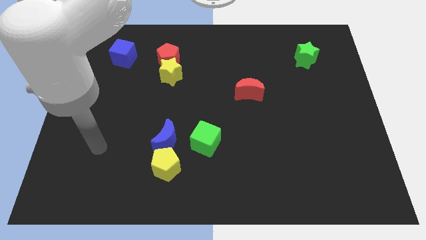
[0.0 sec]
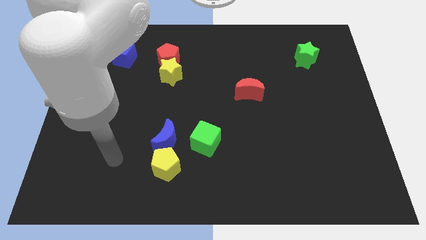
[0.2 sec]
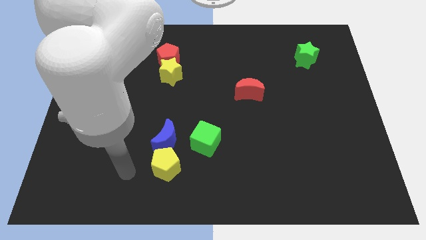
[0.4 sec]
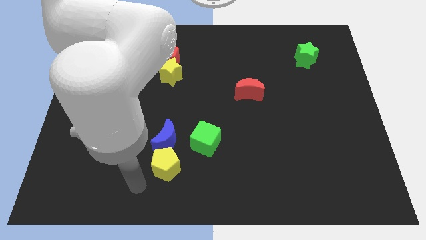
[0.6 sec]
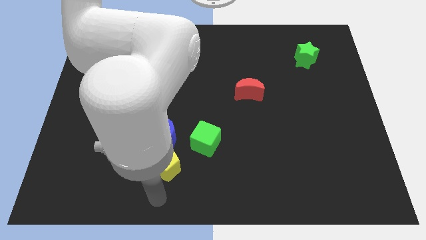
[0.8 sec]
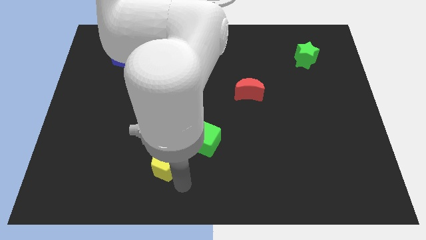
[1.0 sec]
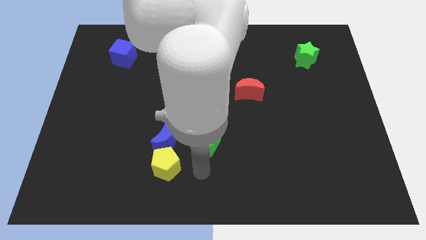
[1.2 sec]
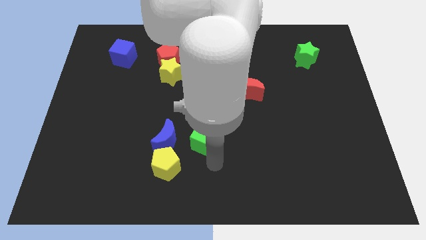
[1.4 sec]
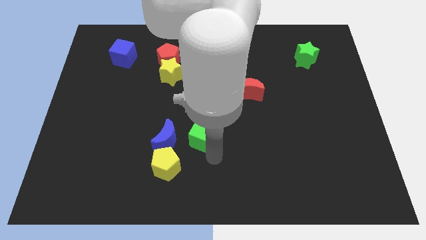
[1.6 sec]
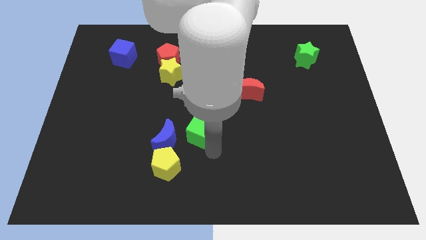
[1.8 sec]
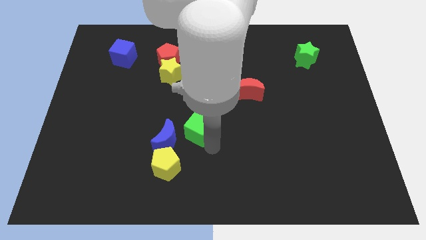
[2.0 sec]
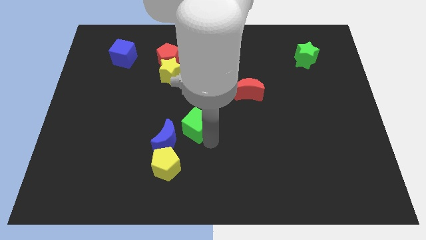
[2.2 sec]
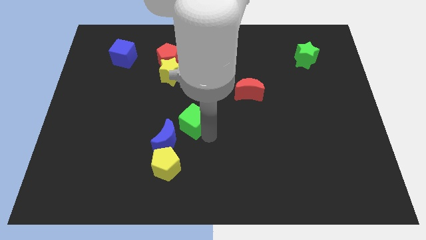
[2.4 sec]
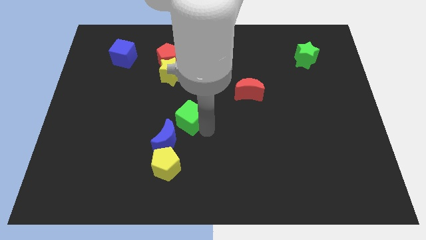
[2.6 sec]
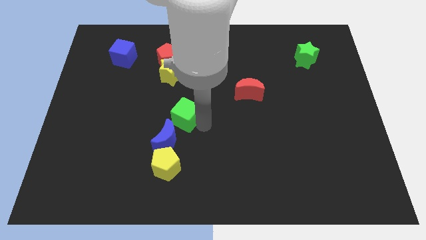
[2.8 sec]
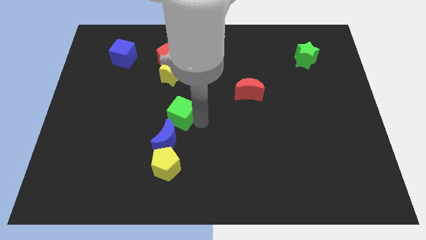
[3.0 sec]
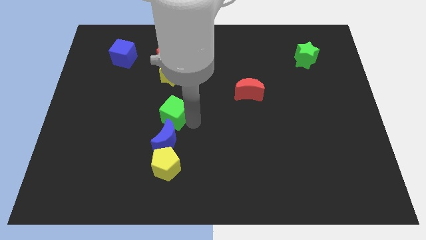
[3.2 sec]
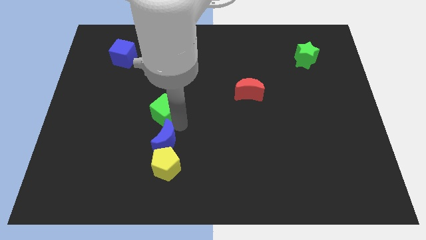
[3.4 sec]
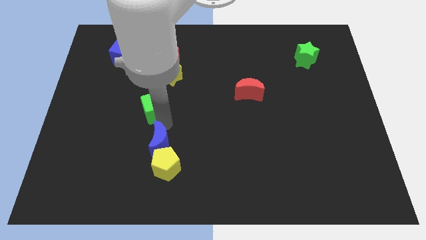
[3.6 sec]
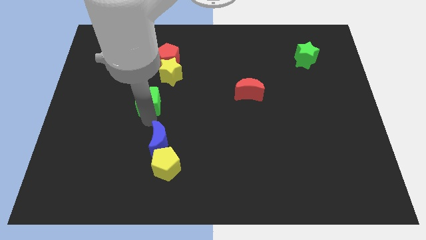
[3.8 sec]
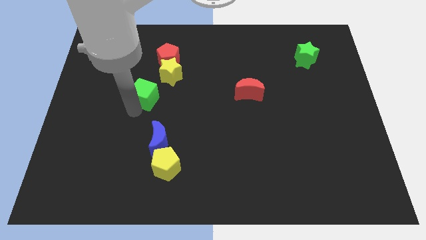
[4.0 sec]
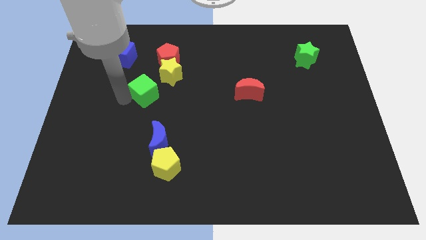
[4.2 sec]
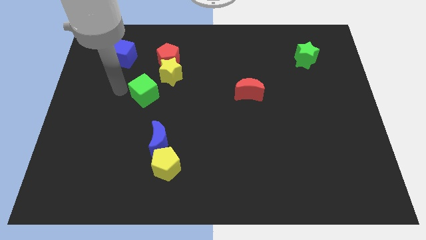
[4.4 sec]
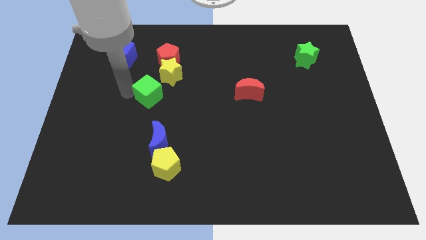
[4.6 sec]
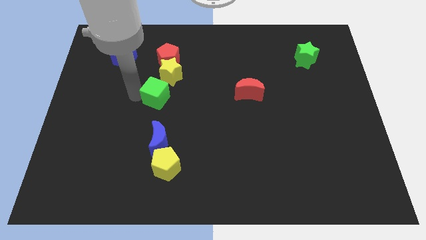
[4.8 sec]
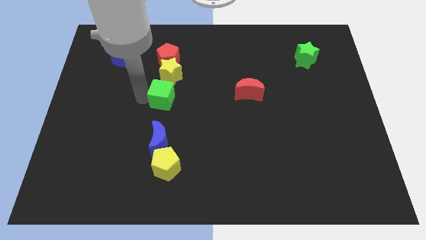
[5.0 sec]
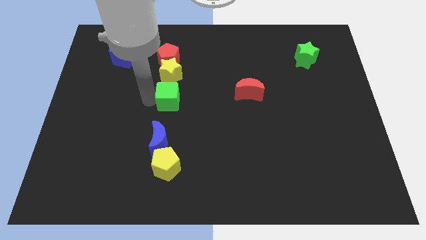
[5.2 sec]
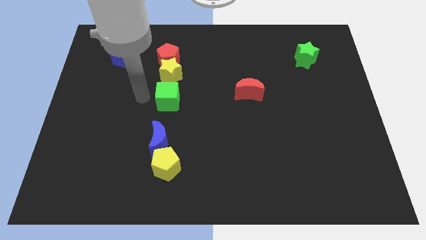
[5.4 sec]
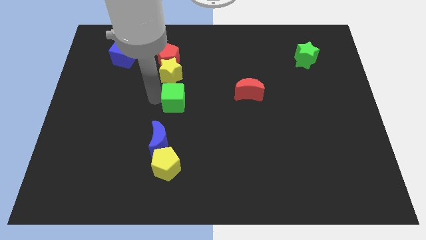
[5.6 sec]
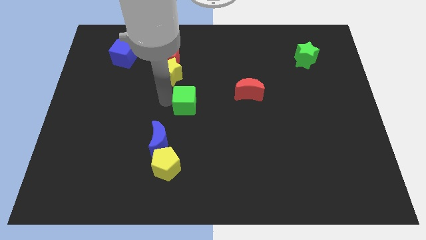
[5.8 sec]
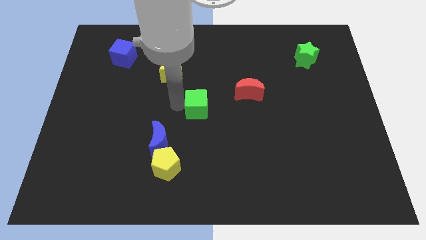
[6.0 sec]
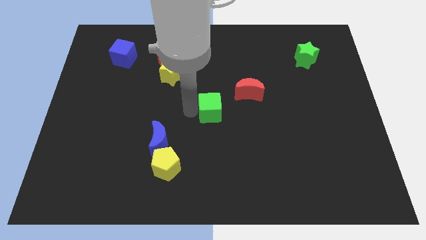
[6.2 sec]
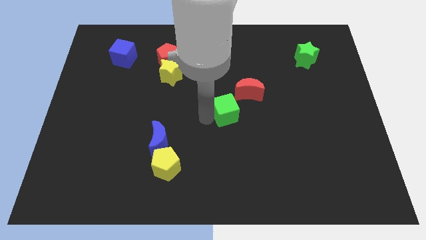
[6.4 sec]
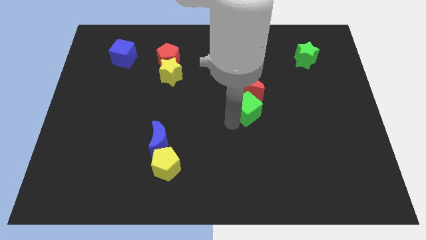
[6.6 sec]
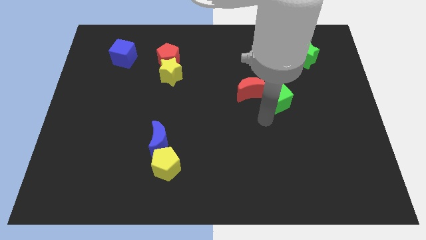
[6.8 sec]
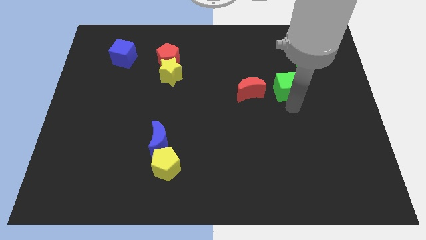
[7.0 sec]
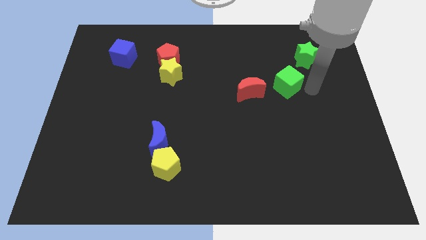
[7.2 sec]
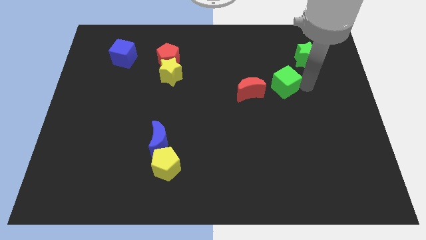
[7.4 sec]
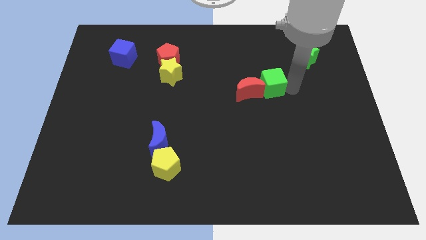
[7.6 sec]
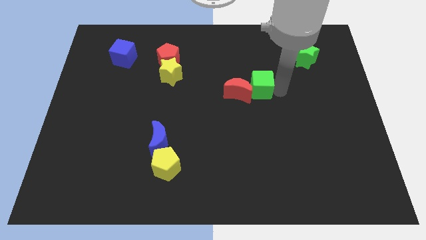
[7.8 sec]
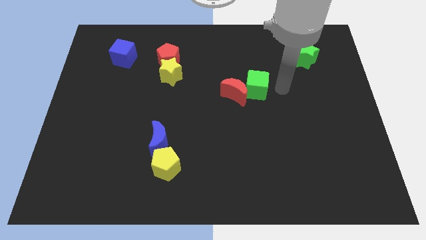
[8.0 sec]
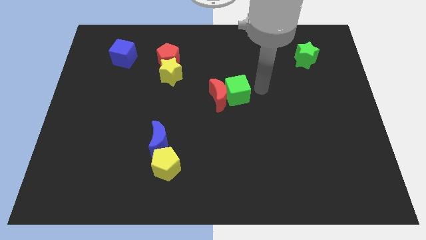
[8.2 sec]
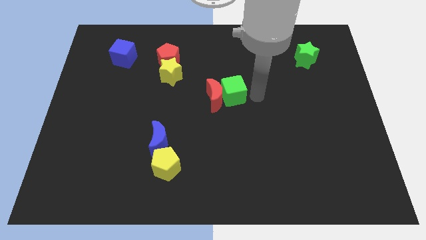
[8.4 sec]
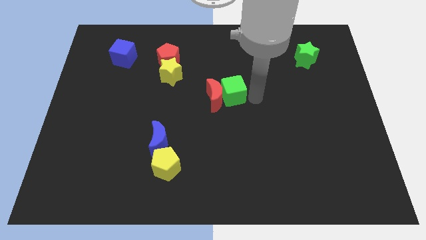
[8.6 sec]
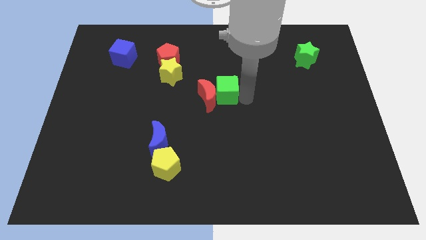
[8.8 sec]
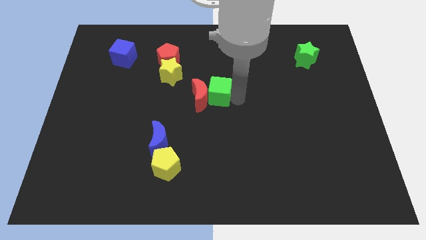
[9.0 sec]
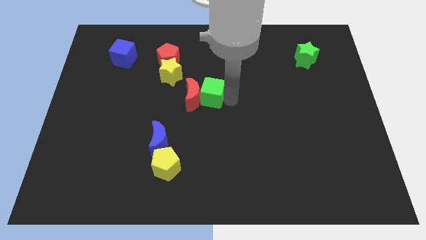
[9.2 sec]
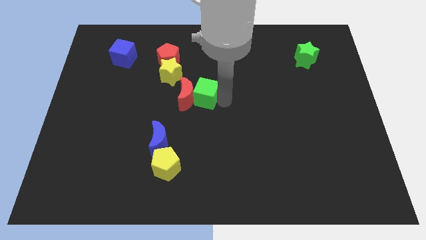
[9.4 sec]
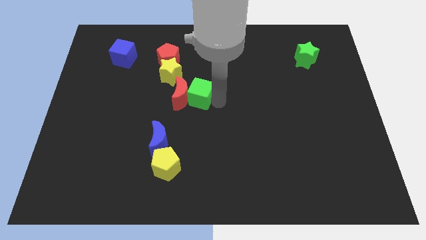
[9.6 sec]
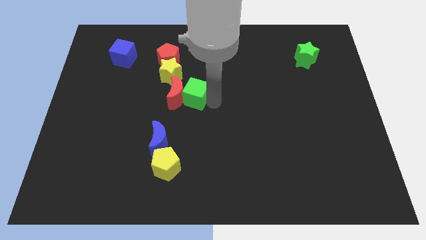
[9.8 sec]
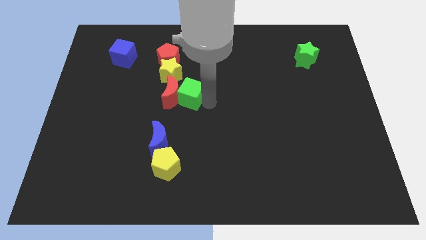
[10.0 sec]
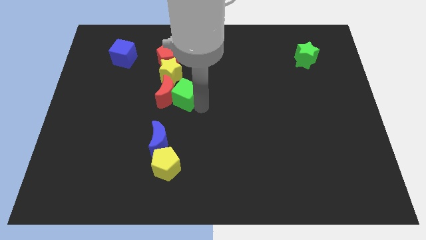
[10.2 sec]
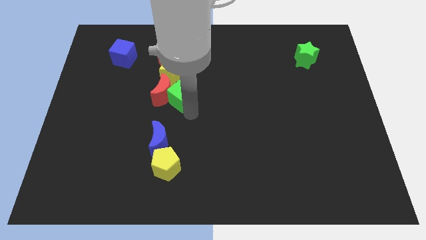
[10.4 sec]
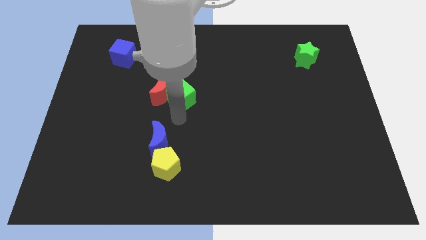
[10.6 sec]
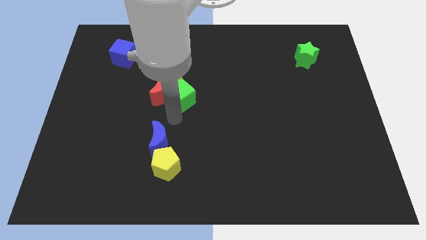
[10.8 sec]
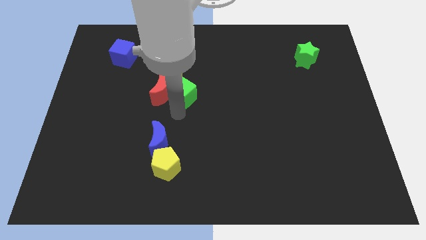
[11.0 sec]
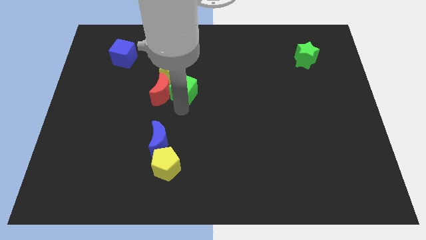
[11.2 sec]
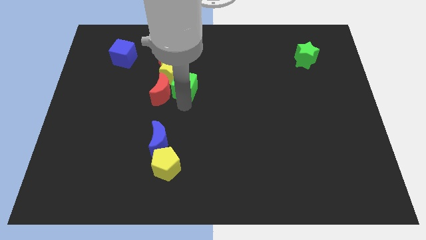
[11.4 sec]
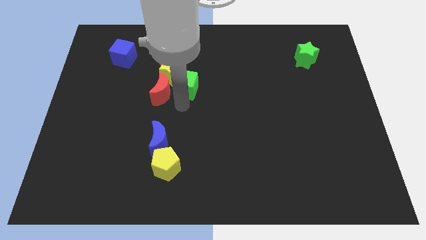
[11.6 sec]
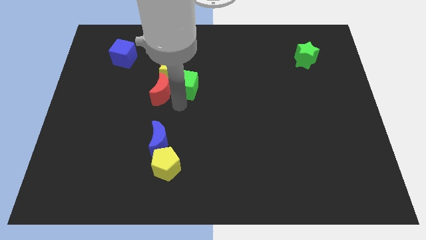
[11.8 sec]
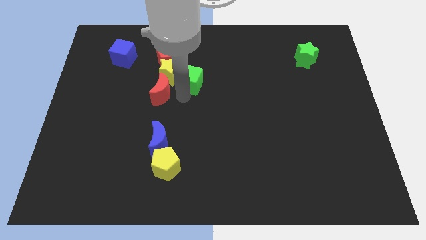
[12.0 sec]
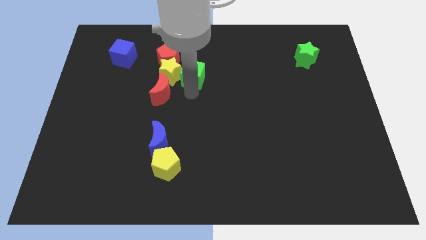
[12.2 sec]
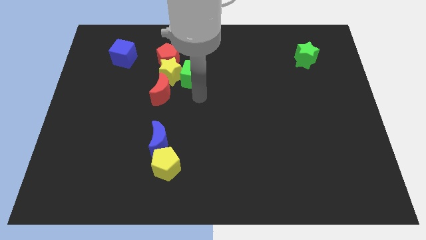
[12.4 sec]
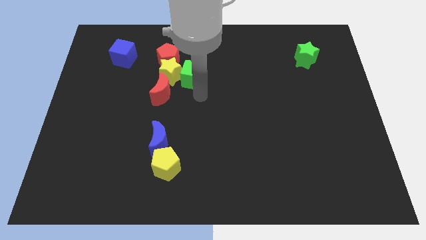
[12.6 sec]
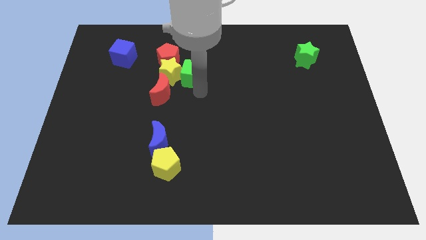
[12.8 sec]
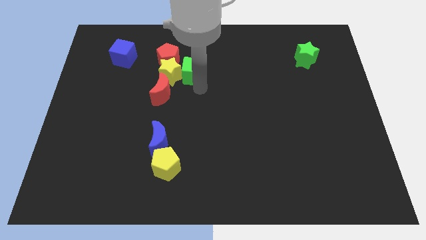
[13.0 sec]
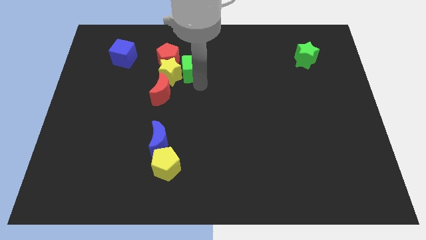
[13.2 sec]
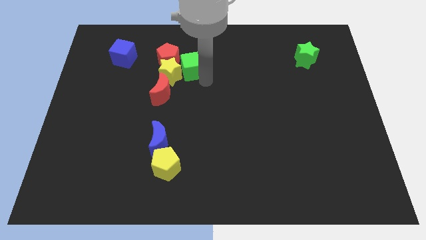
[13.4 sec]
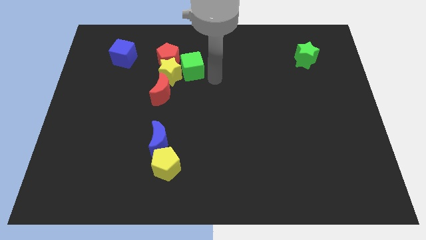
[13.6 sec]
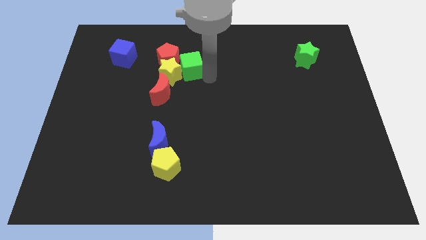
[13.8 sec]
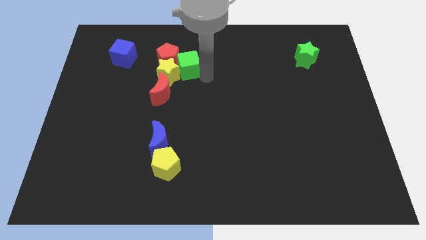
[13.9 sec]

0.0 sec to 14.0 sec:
move the green cube next to the red pentagon
